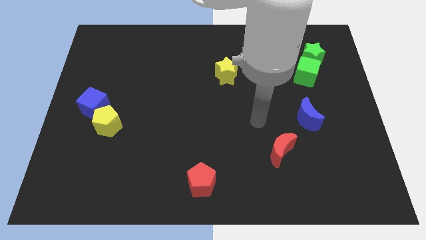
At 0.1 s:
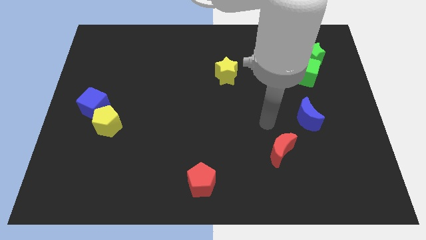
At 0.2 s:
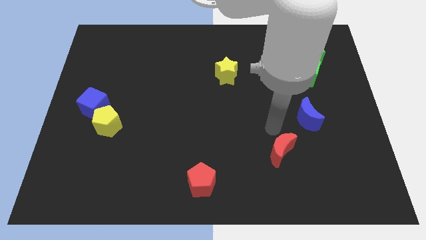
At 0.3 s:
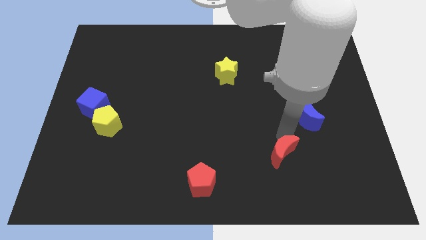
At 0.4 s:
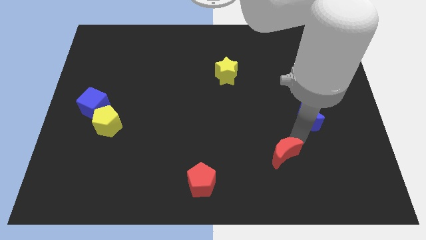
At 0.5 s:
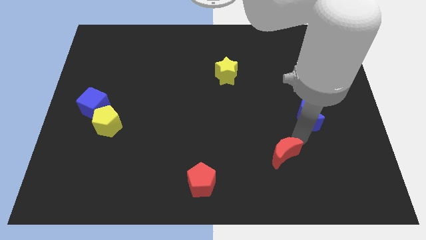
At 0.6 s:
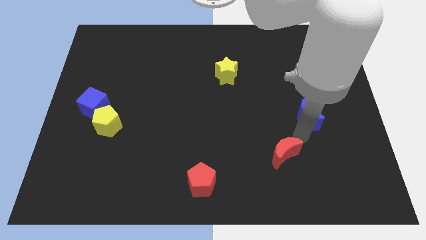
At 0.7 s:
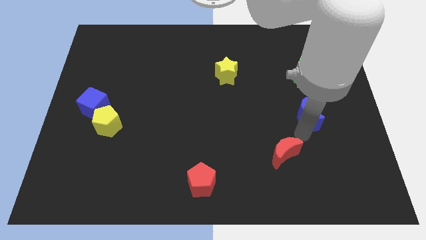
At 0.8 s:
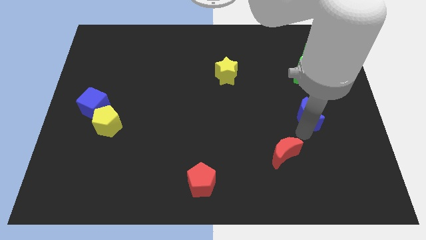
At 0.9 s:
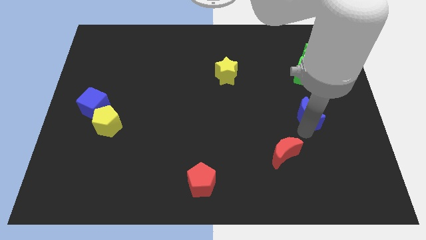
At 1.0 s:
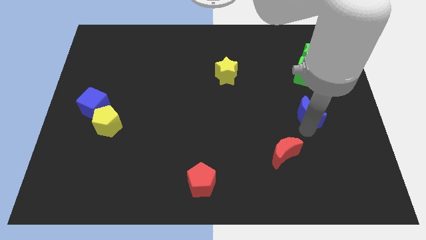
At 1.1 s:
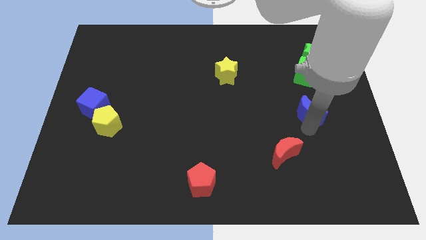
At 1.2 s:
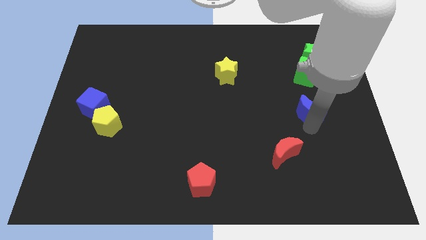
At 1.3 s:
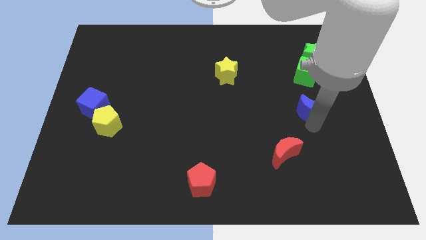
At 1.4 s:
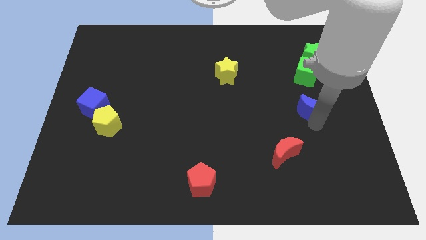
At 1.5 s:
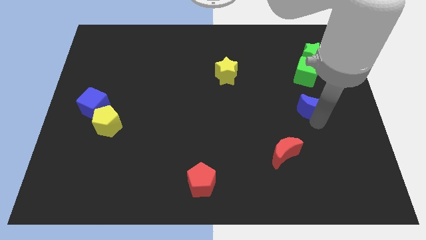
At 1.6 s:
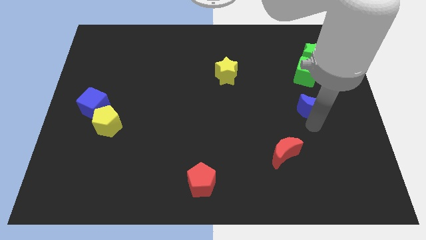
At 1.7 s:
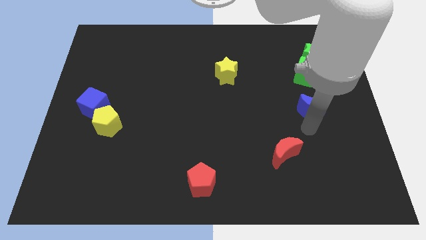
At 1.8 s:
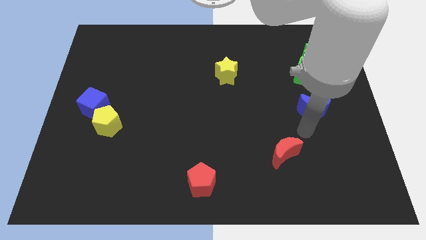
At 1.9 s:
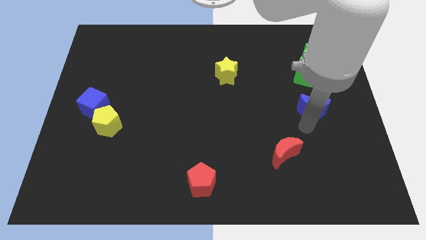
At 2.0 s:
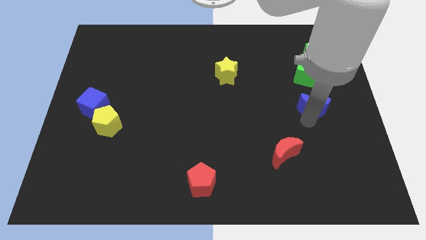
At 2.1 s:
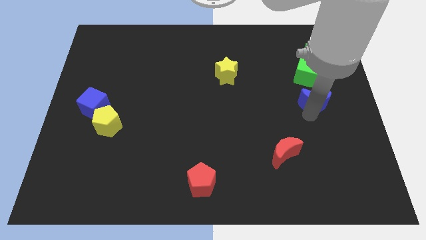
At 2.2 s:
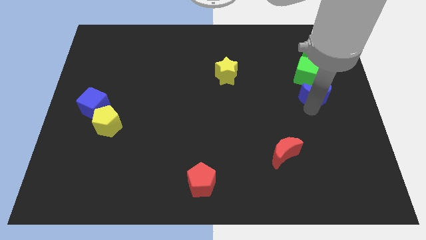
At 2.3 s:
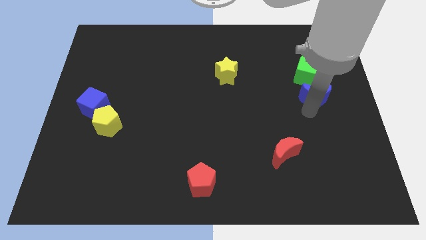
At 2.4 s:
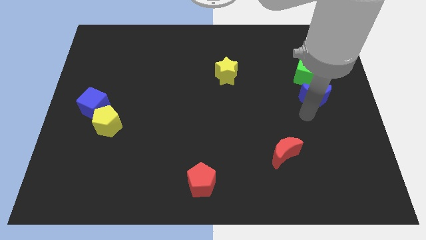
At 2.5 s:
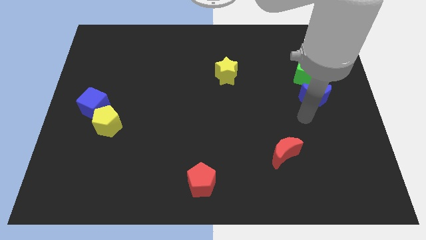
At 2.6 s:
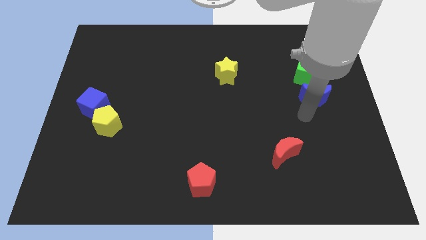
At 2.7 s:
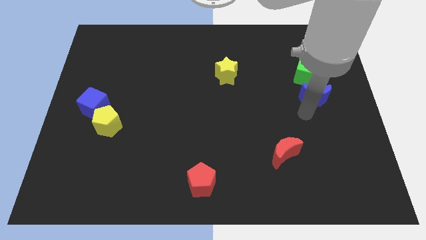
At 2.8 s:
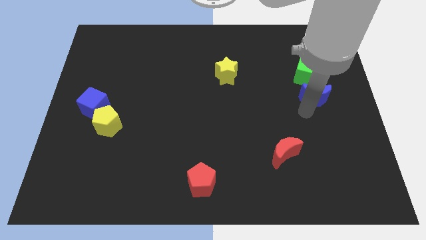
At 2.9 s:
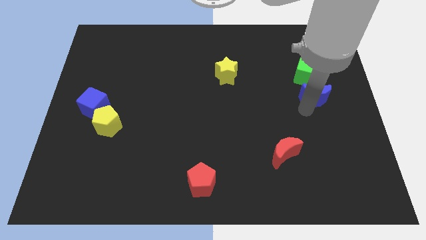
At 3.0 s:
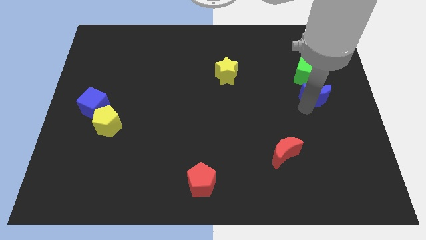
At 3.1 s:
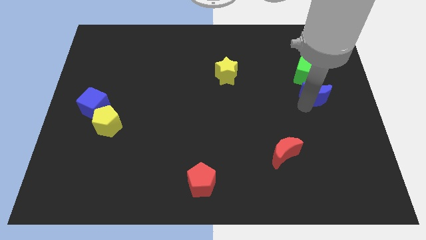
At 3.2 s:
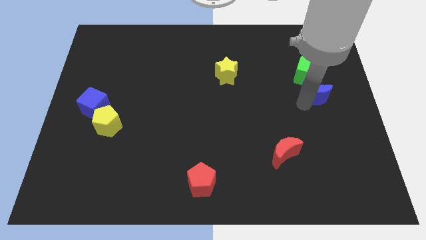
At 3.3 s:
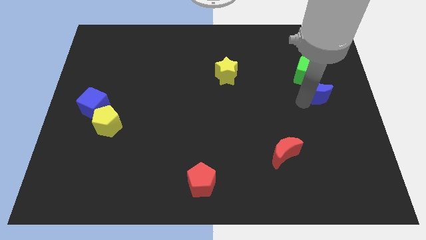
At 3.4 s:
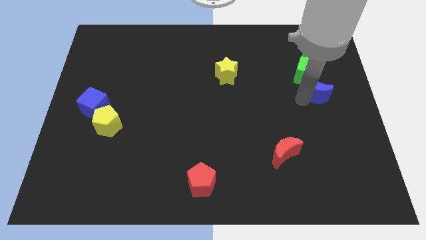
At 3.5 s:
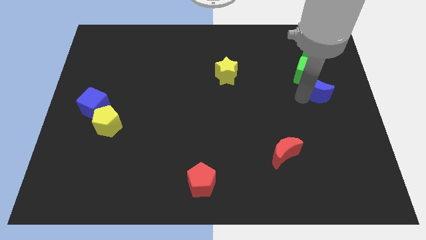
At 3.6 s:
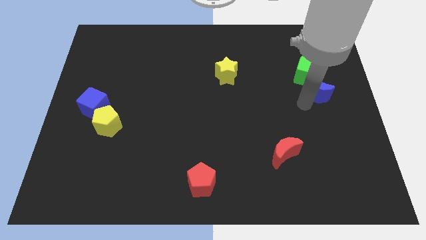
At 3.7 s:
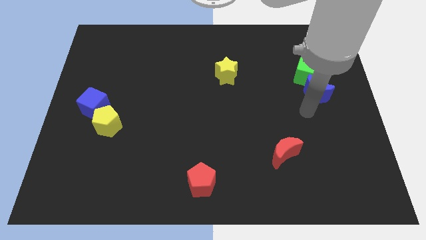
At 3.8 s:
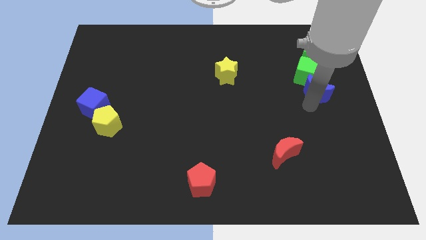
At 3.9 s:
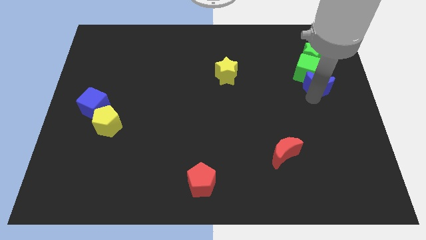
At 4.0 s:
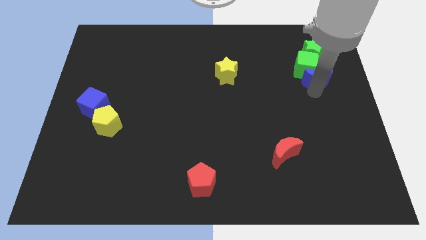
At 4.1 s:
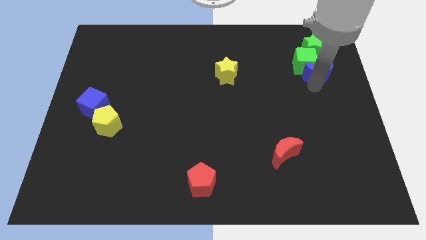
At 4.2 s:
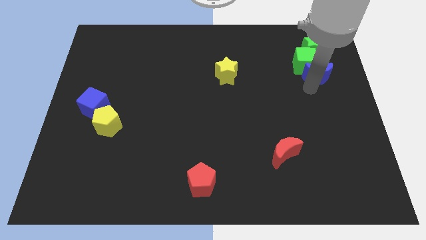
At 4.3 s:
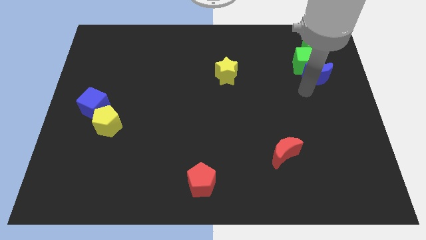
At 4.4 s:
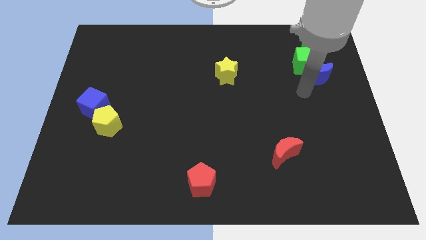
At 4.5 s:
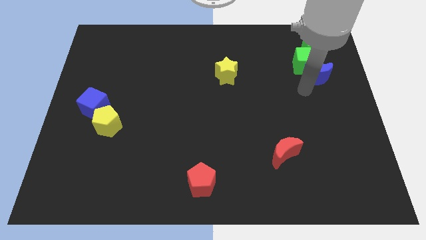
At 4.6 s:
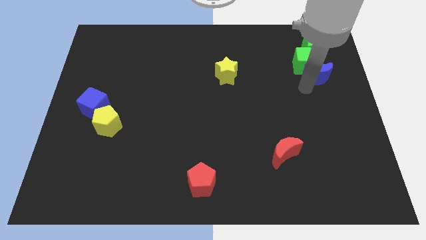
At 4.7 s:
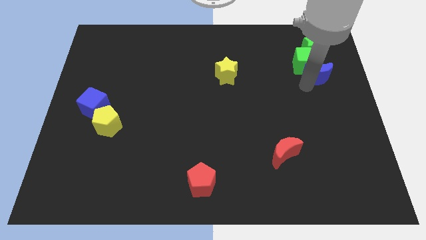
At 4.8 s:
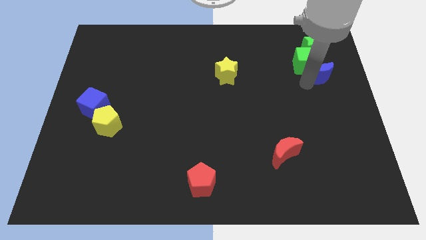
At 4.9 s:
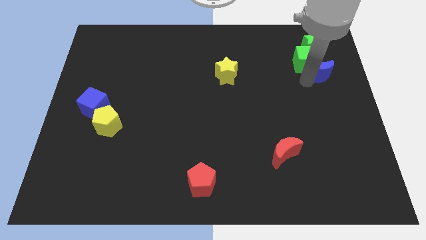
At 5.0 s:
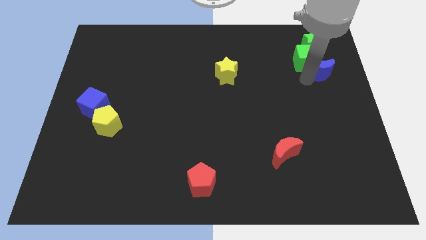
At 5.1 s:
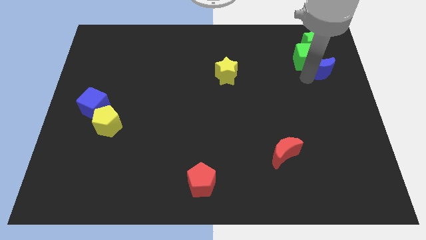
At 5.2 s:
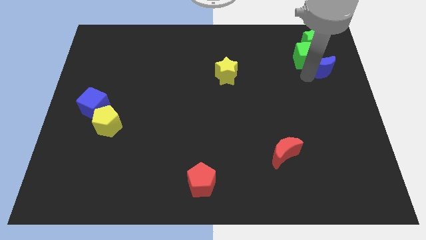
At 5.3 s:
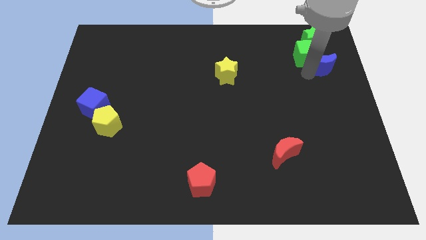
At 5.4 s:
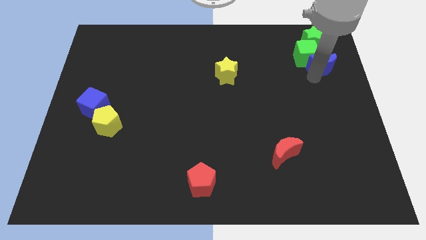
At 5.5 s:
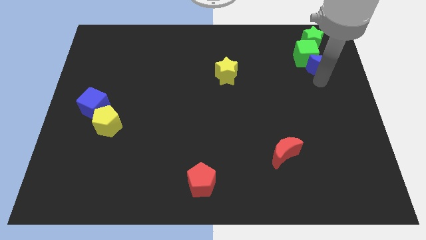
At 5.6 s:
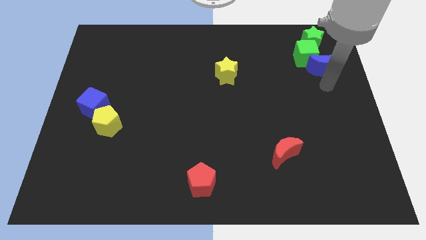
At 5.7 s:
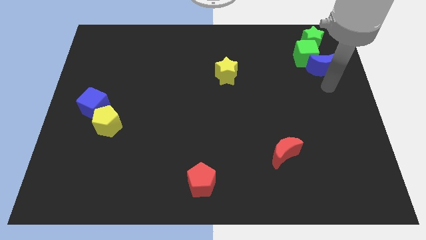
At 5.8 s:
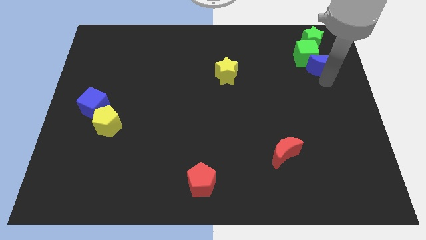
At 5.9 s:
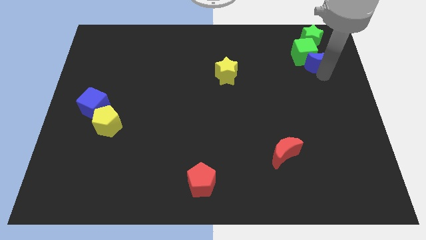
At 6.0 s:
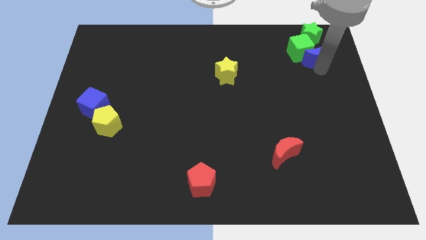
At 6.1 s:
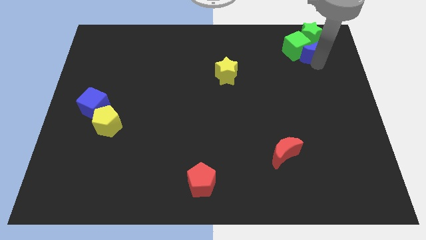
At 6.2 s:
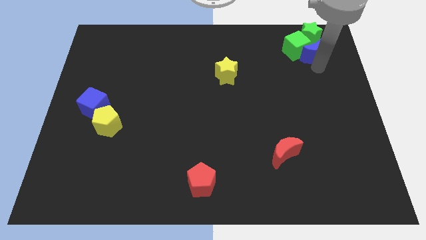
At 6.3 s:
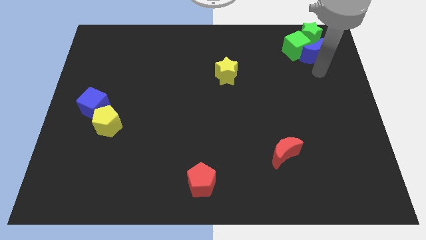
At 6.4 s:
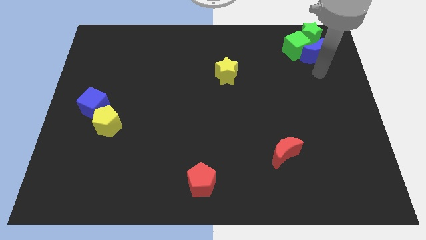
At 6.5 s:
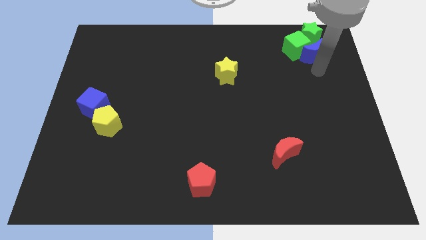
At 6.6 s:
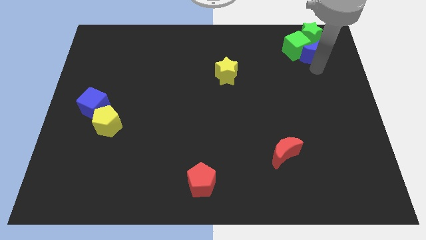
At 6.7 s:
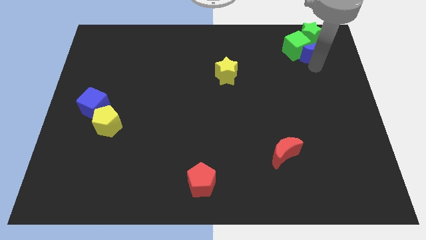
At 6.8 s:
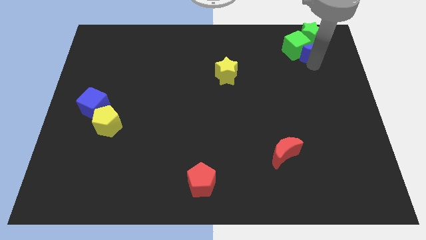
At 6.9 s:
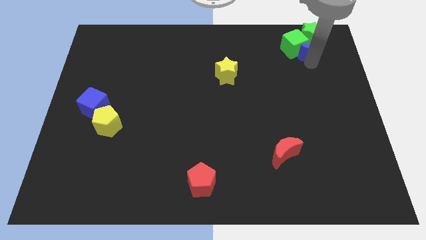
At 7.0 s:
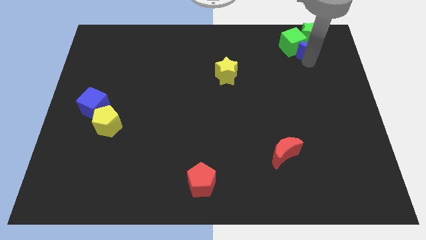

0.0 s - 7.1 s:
slide the blue moon close to the green star
